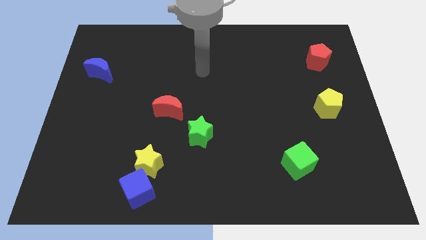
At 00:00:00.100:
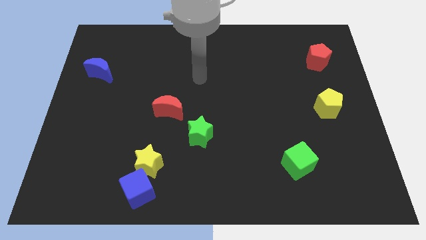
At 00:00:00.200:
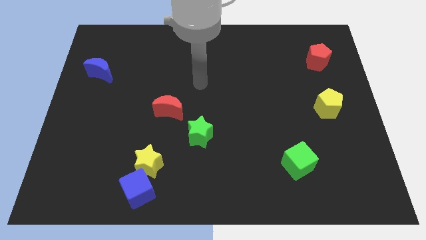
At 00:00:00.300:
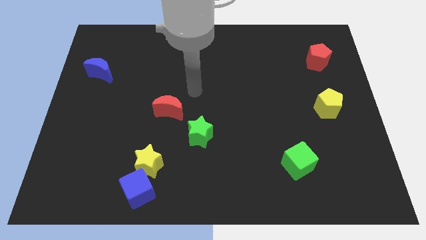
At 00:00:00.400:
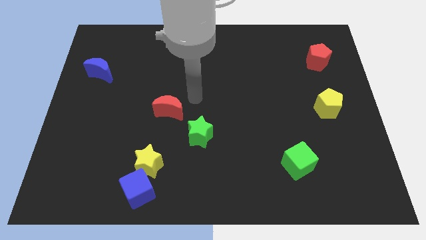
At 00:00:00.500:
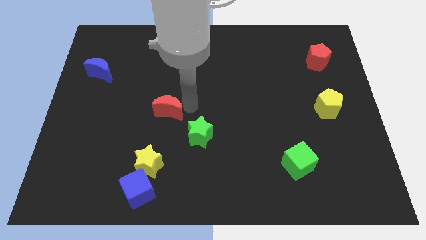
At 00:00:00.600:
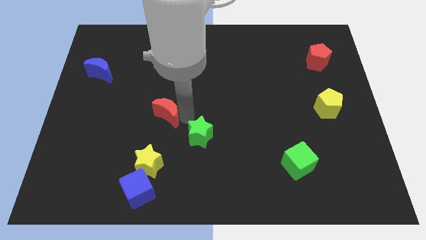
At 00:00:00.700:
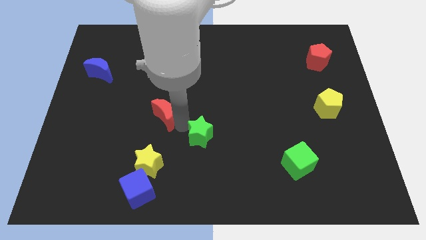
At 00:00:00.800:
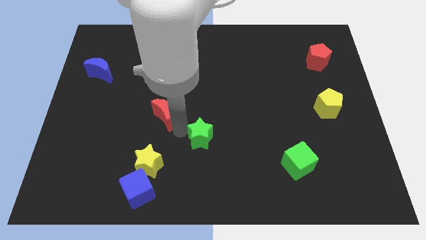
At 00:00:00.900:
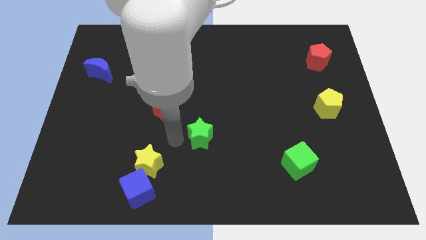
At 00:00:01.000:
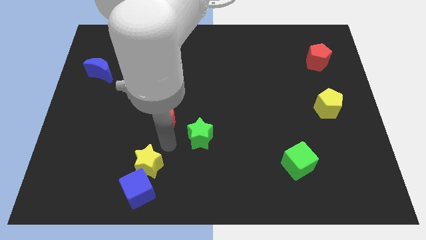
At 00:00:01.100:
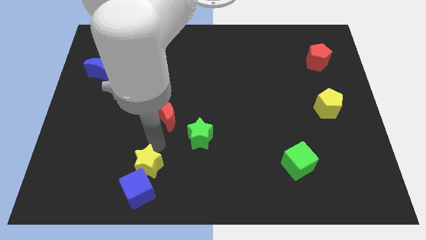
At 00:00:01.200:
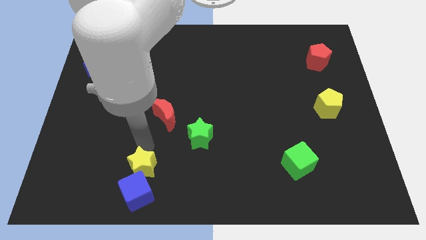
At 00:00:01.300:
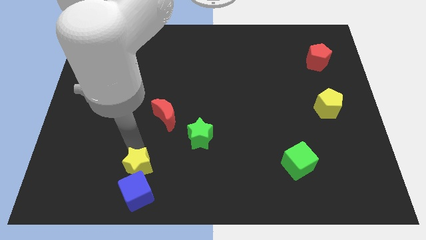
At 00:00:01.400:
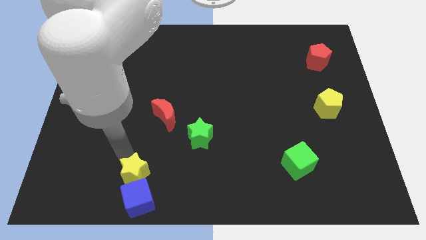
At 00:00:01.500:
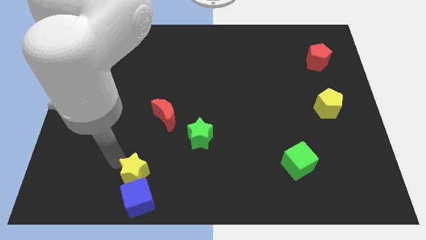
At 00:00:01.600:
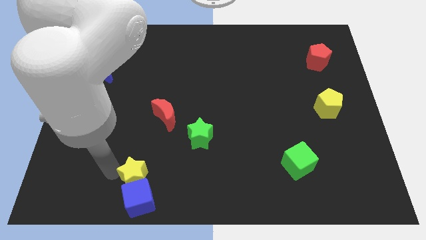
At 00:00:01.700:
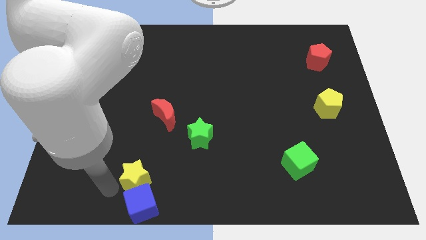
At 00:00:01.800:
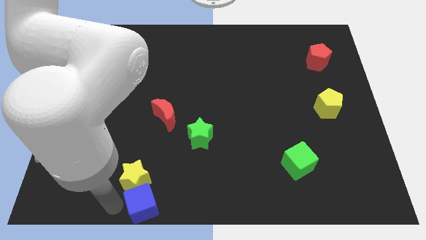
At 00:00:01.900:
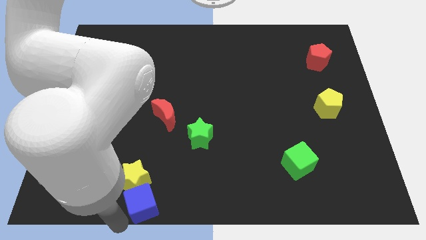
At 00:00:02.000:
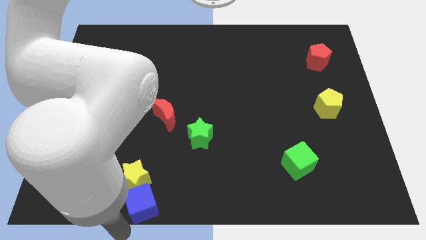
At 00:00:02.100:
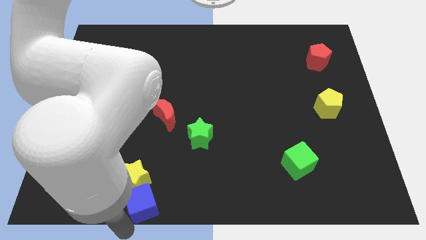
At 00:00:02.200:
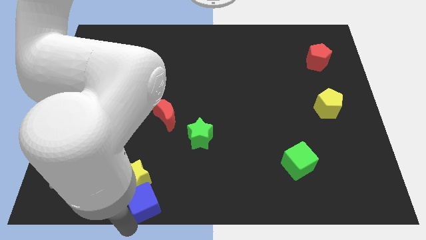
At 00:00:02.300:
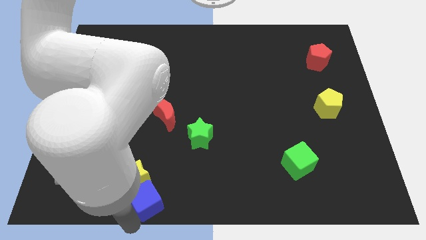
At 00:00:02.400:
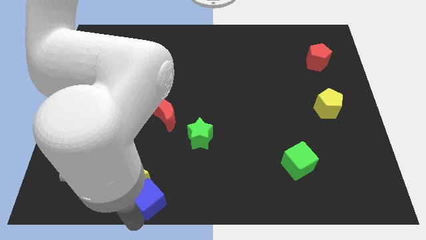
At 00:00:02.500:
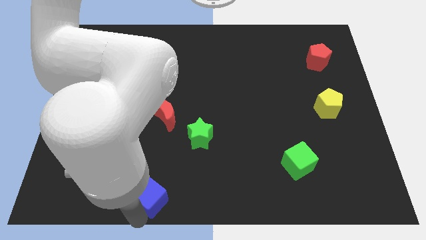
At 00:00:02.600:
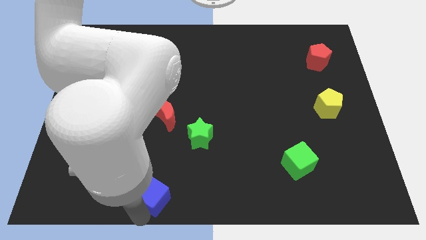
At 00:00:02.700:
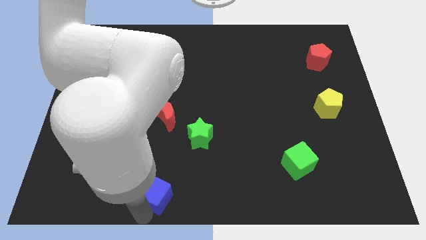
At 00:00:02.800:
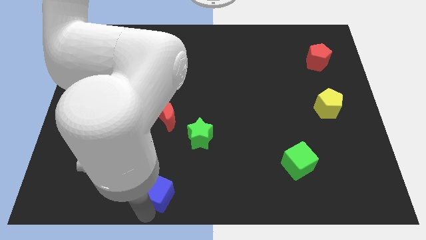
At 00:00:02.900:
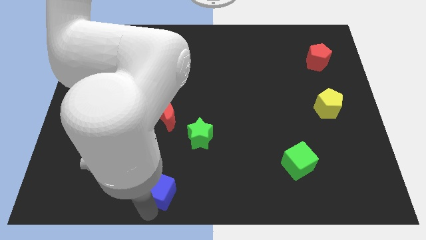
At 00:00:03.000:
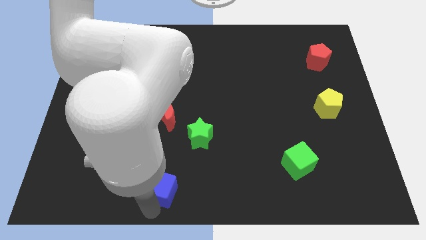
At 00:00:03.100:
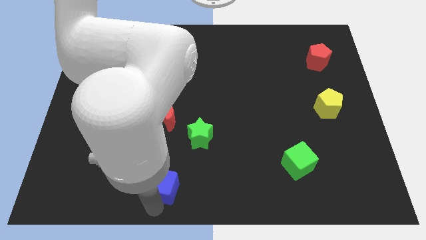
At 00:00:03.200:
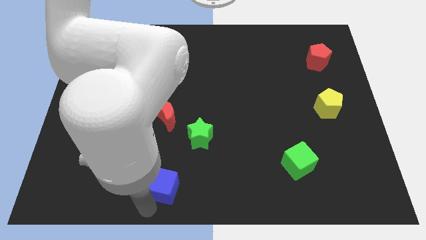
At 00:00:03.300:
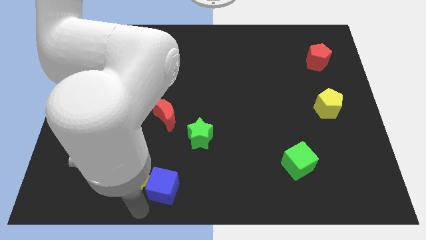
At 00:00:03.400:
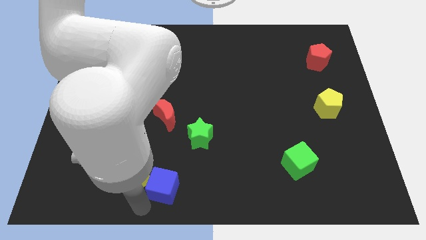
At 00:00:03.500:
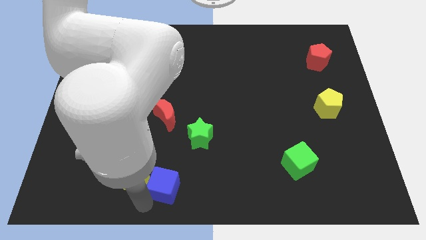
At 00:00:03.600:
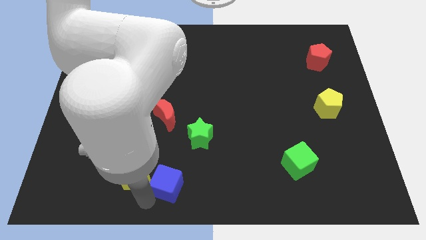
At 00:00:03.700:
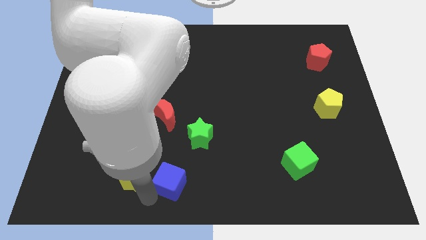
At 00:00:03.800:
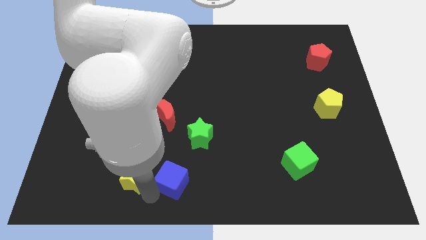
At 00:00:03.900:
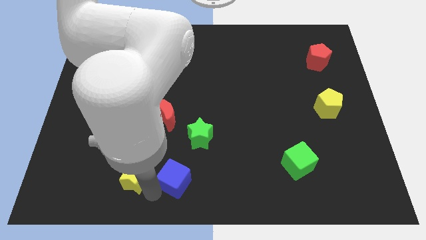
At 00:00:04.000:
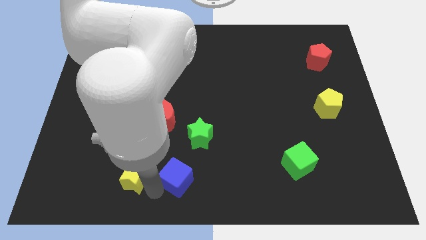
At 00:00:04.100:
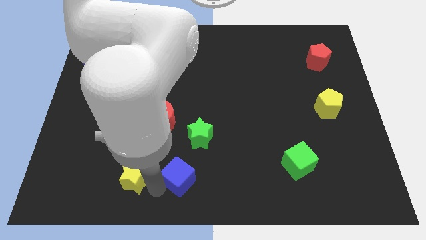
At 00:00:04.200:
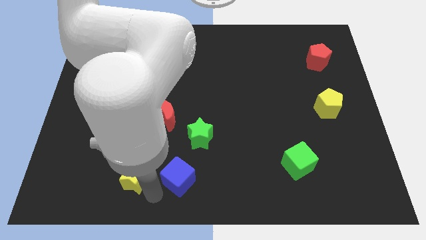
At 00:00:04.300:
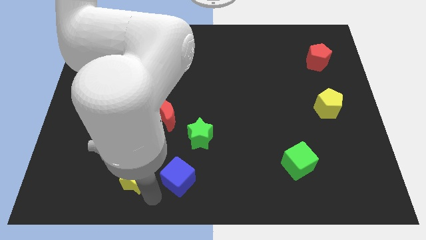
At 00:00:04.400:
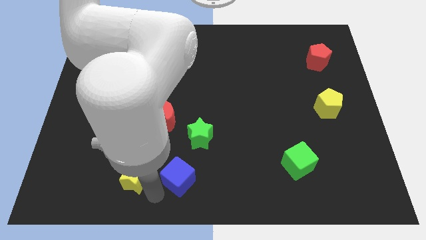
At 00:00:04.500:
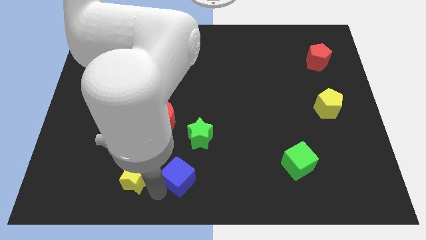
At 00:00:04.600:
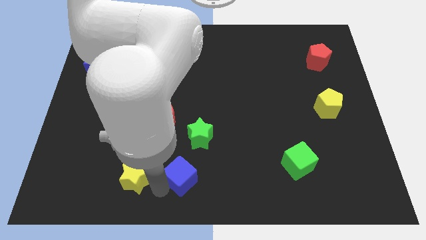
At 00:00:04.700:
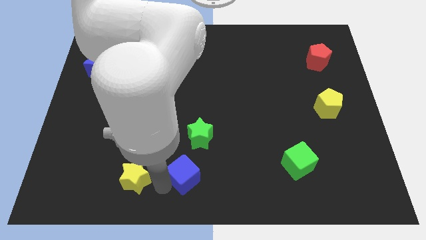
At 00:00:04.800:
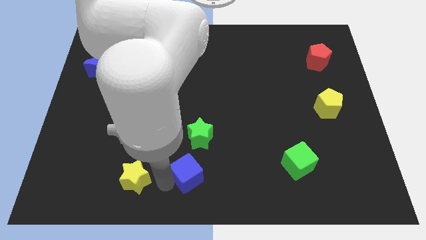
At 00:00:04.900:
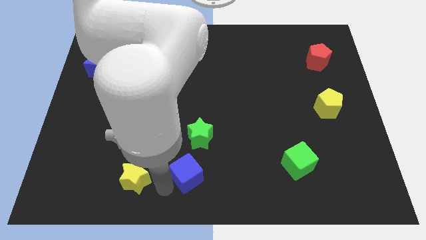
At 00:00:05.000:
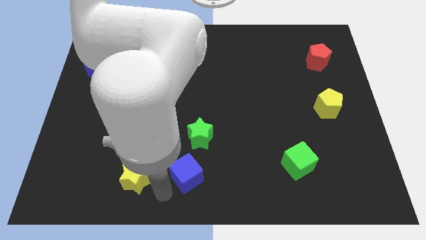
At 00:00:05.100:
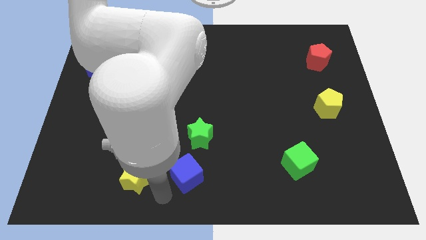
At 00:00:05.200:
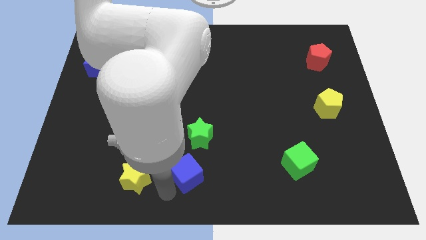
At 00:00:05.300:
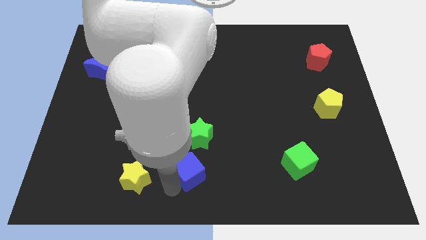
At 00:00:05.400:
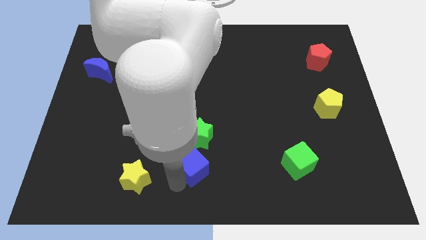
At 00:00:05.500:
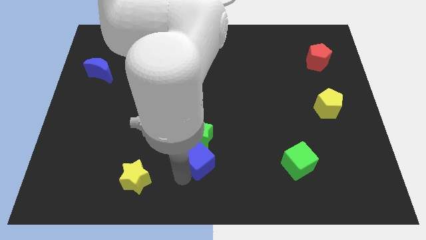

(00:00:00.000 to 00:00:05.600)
put the blue cube to the bottom right of the green star

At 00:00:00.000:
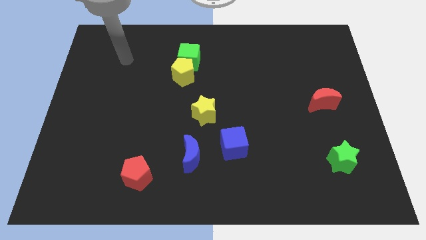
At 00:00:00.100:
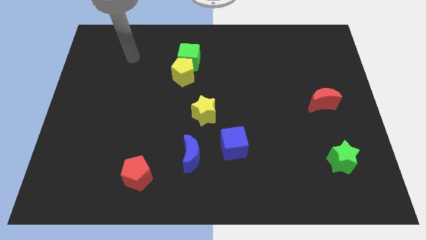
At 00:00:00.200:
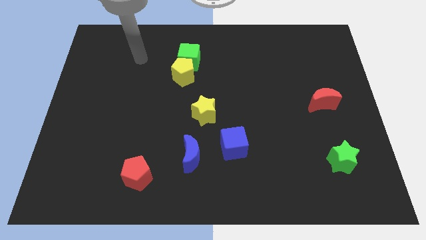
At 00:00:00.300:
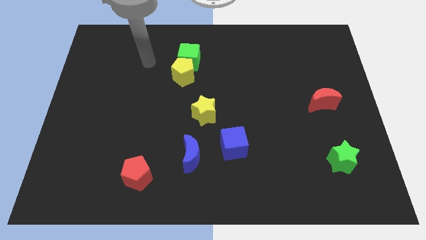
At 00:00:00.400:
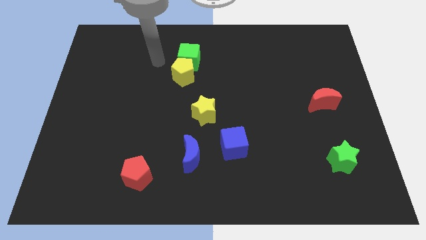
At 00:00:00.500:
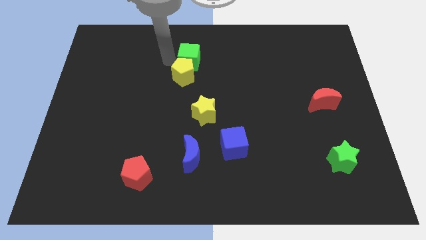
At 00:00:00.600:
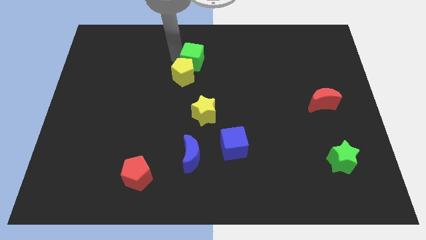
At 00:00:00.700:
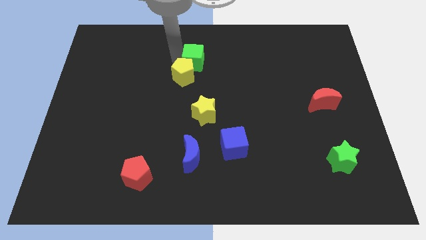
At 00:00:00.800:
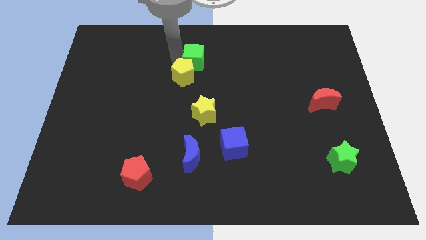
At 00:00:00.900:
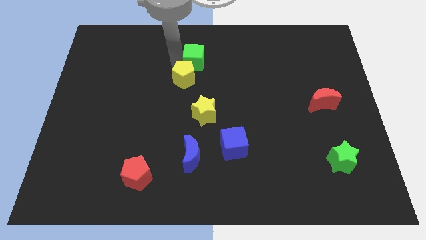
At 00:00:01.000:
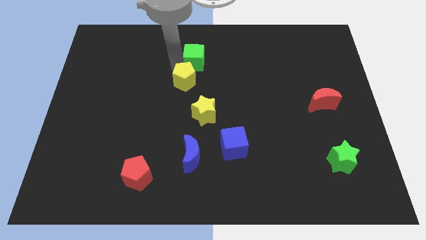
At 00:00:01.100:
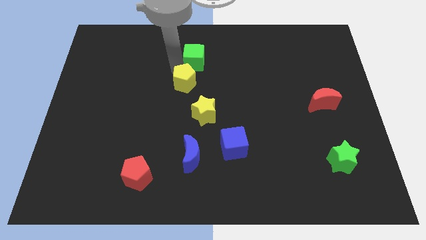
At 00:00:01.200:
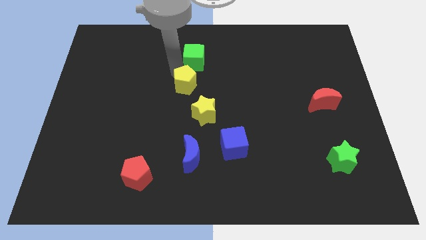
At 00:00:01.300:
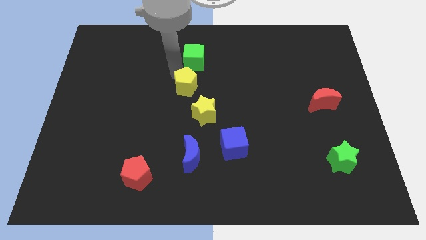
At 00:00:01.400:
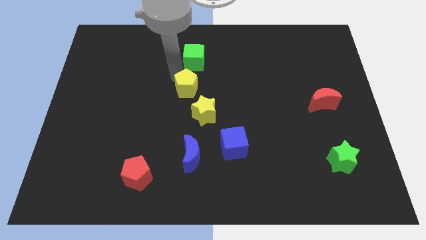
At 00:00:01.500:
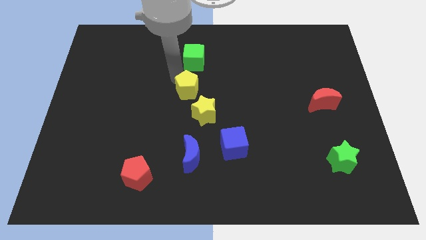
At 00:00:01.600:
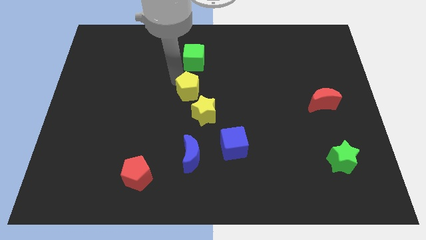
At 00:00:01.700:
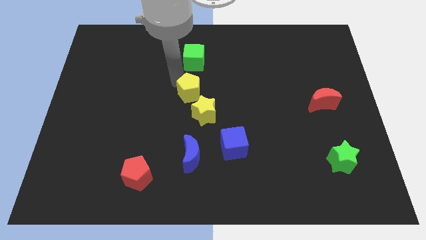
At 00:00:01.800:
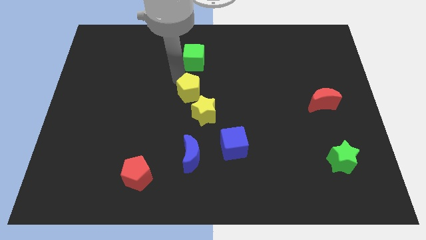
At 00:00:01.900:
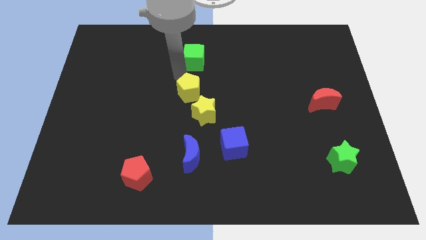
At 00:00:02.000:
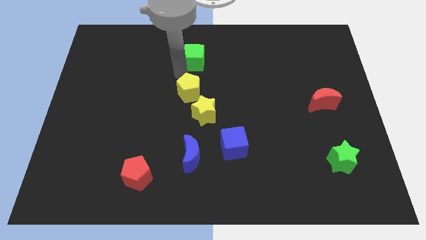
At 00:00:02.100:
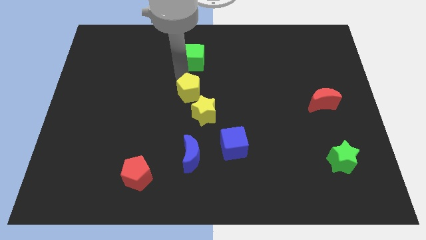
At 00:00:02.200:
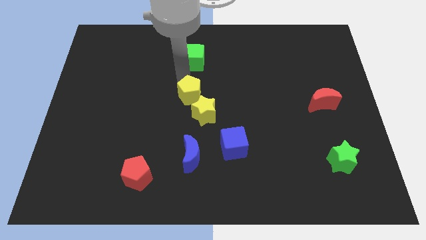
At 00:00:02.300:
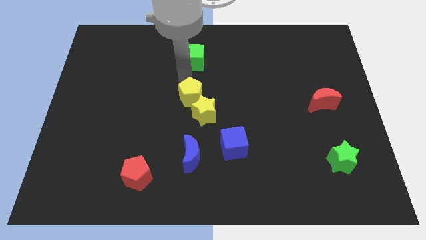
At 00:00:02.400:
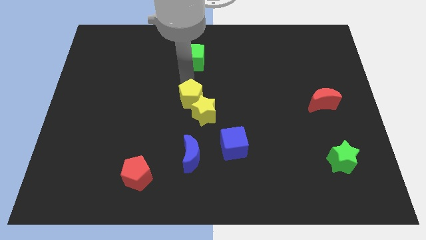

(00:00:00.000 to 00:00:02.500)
slide the yellow pentagon to the top side of the blue moon
